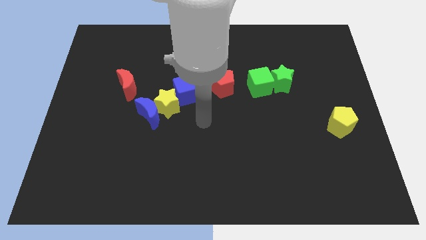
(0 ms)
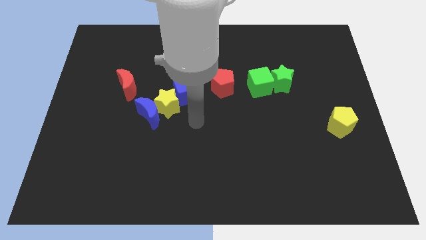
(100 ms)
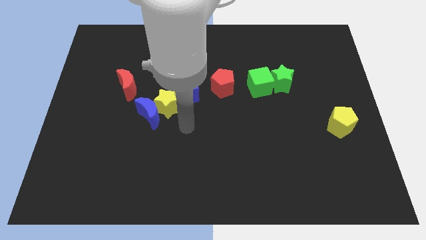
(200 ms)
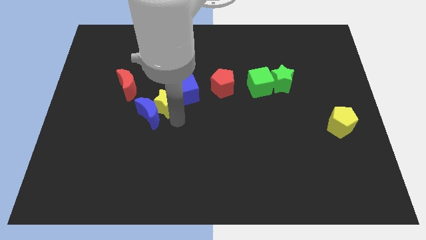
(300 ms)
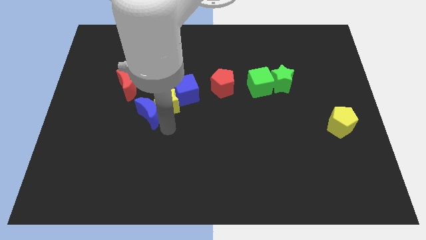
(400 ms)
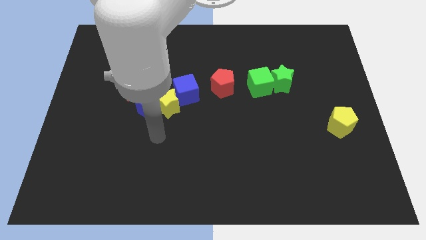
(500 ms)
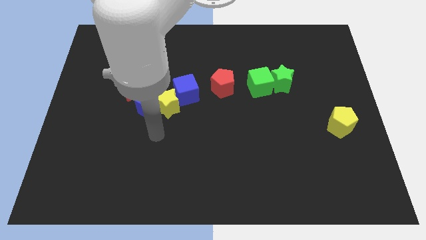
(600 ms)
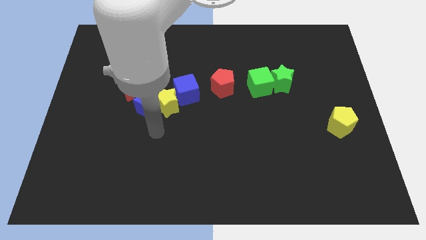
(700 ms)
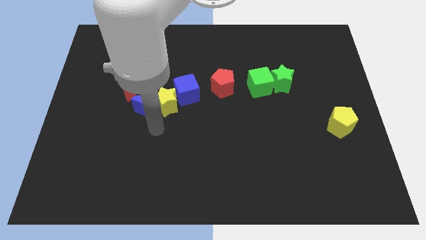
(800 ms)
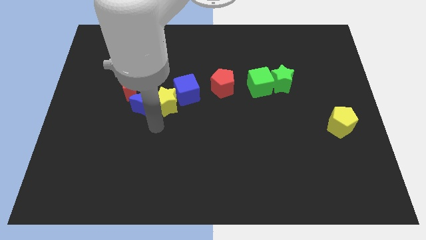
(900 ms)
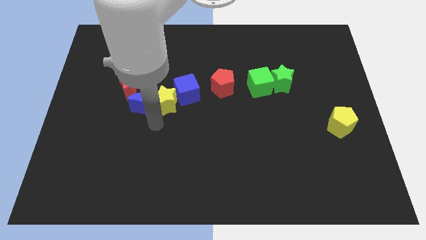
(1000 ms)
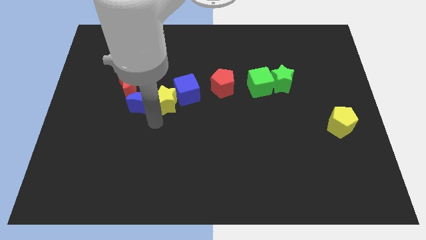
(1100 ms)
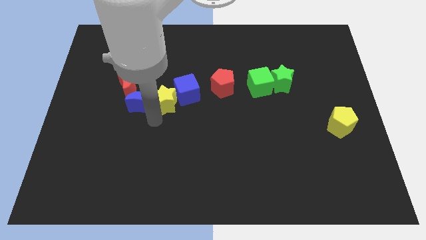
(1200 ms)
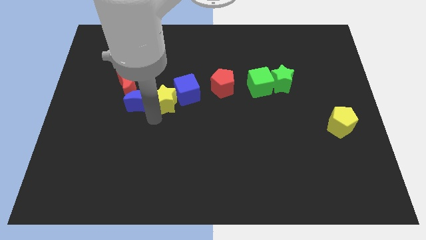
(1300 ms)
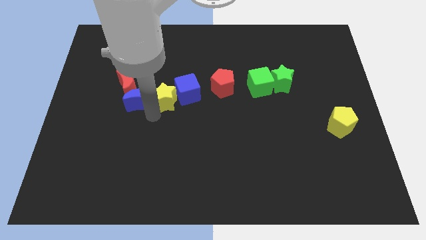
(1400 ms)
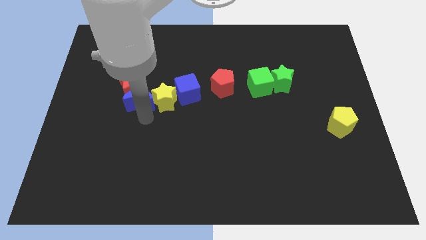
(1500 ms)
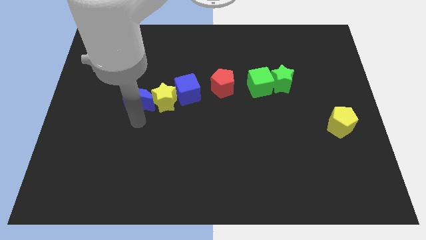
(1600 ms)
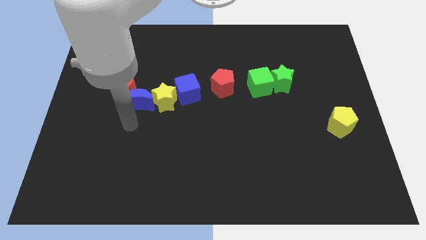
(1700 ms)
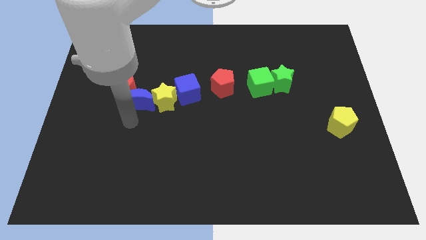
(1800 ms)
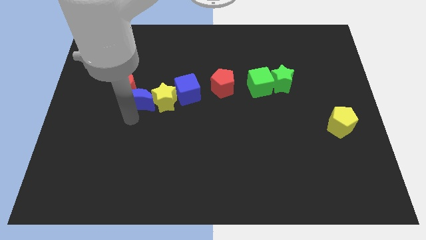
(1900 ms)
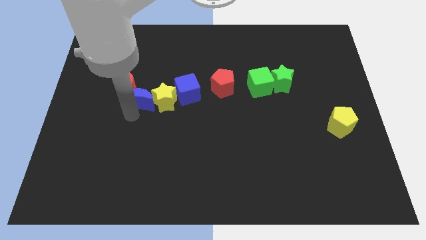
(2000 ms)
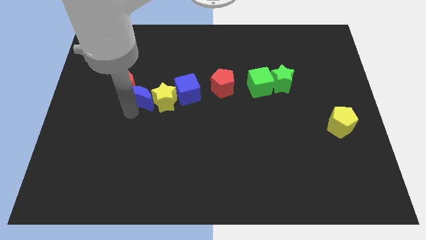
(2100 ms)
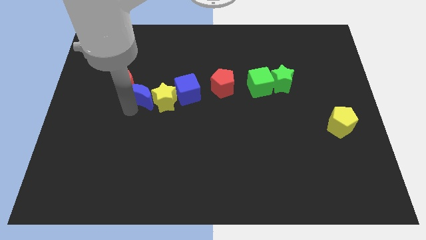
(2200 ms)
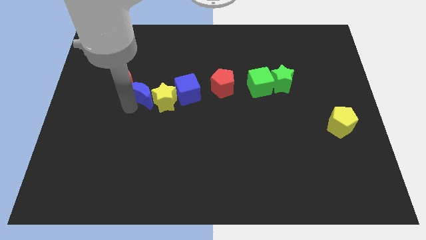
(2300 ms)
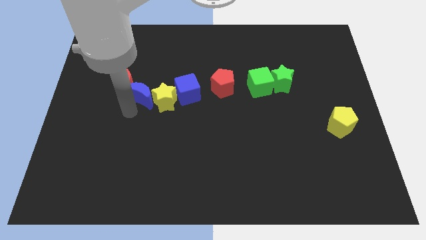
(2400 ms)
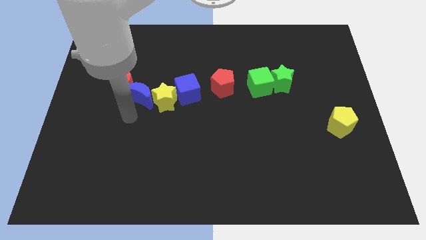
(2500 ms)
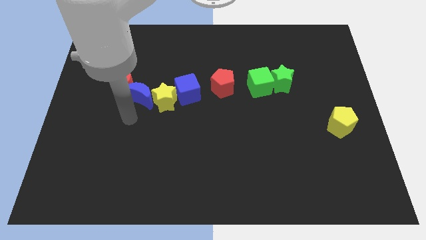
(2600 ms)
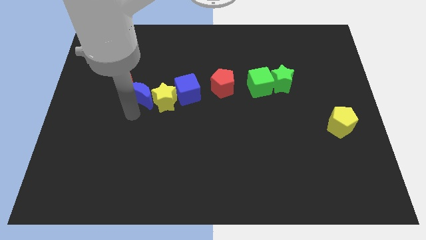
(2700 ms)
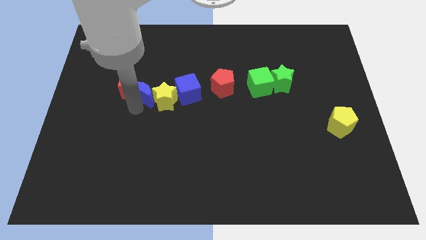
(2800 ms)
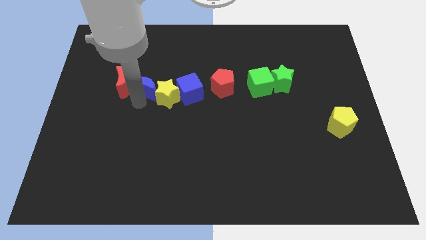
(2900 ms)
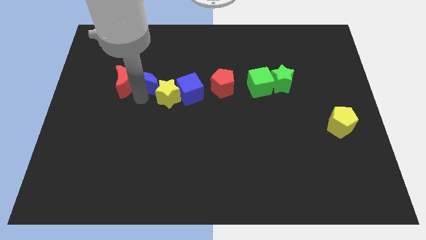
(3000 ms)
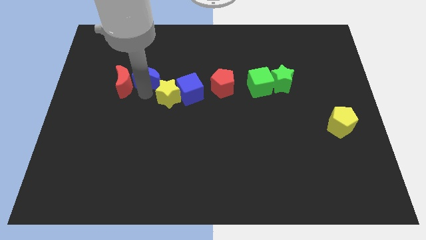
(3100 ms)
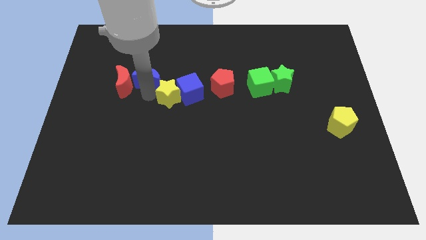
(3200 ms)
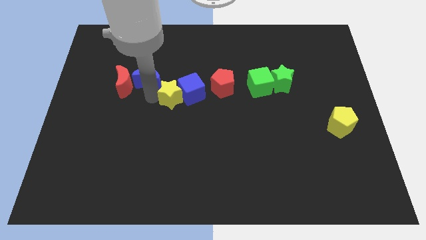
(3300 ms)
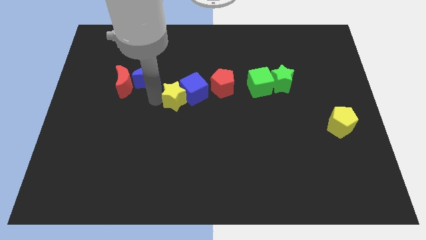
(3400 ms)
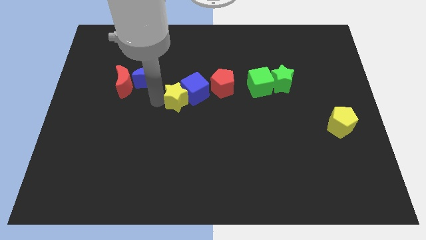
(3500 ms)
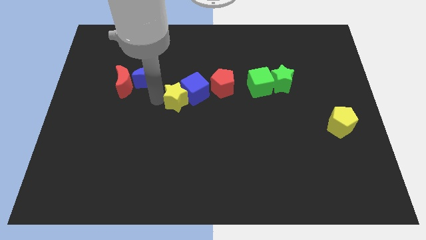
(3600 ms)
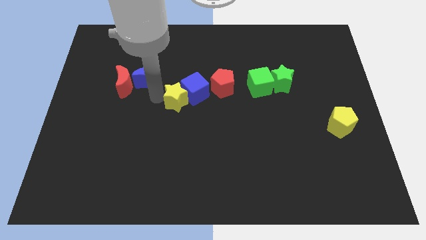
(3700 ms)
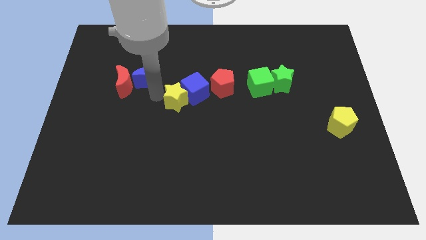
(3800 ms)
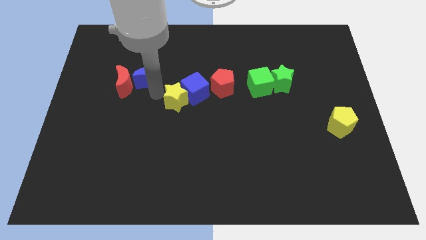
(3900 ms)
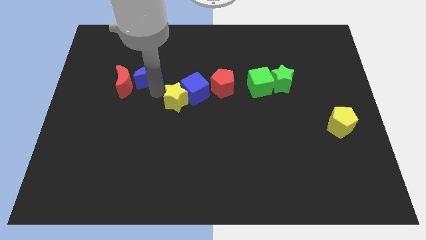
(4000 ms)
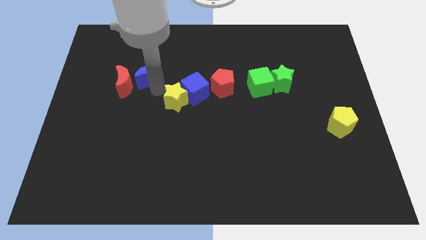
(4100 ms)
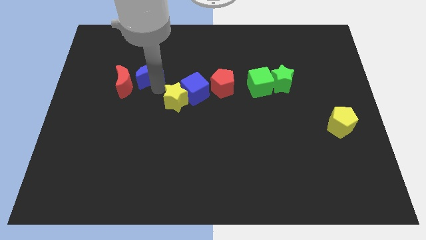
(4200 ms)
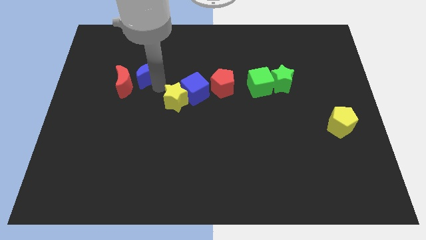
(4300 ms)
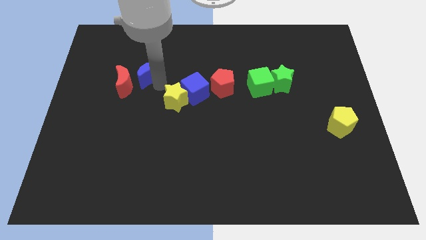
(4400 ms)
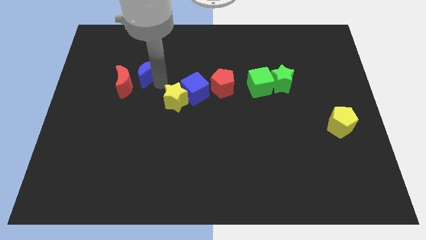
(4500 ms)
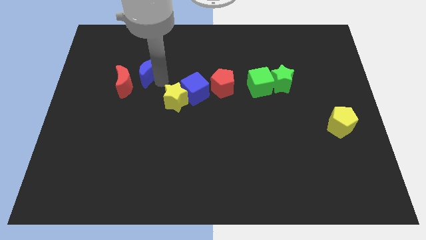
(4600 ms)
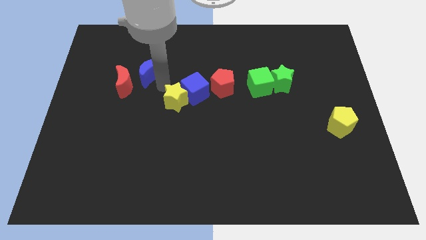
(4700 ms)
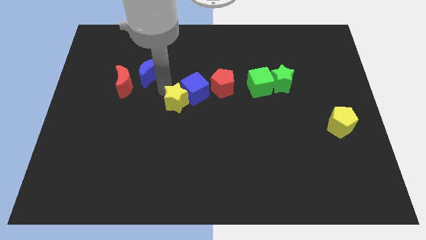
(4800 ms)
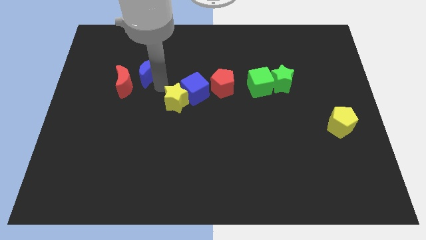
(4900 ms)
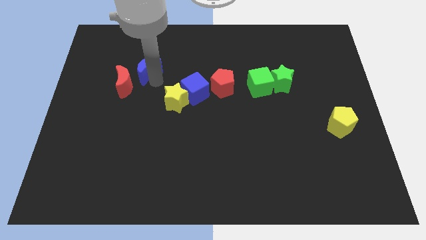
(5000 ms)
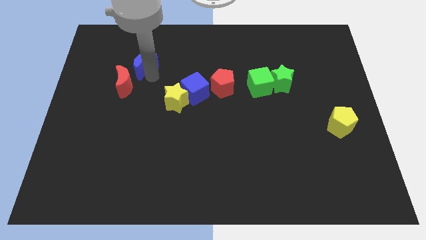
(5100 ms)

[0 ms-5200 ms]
push the blue moon to the top side of the red moon

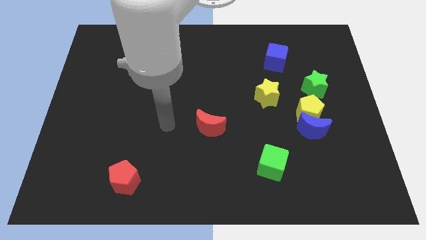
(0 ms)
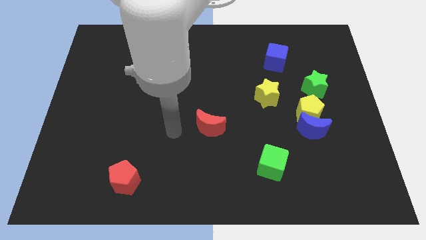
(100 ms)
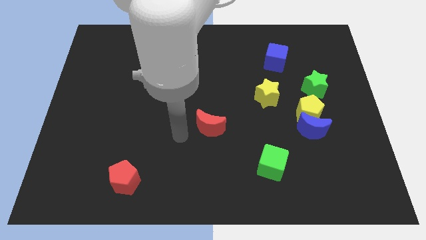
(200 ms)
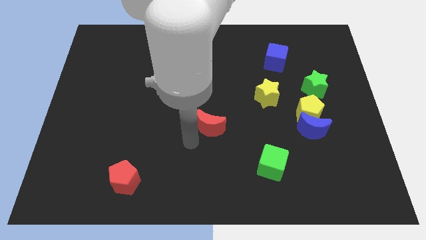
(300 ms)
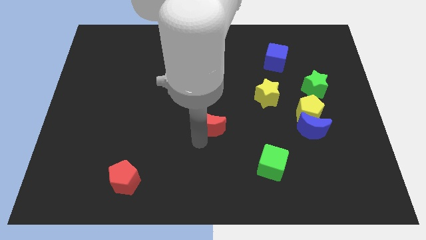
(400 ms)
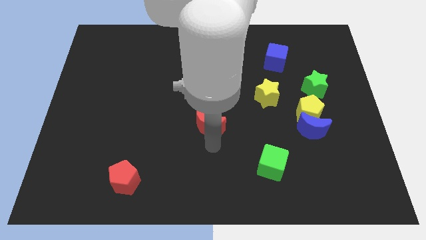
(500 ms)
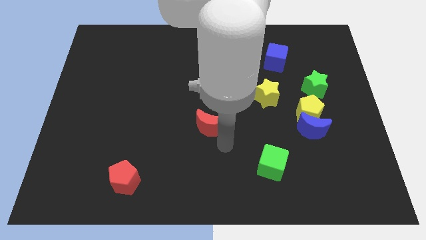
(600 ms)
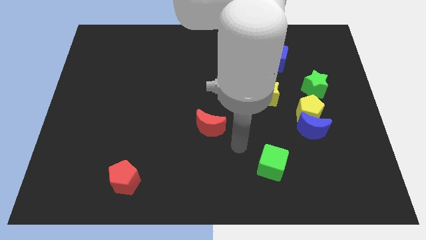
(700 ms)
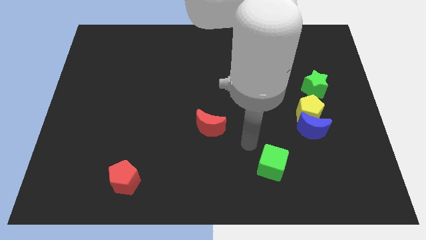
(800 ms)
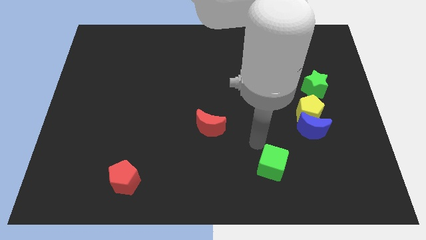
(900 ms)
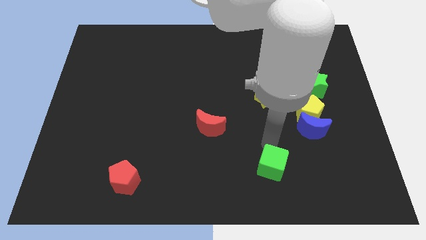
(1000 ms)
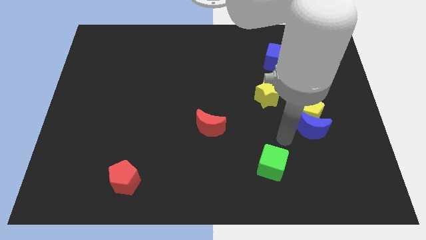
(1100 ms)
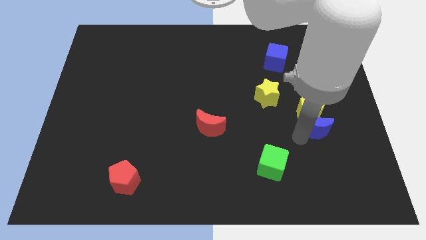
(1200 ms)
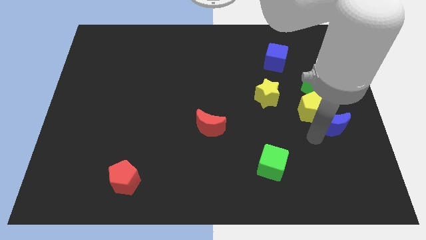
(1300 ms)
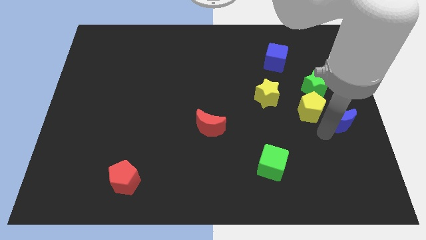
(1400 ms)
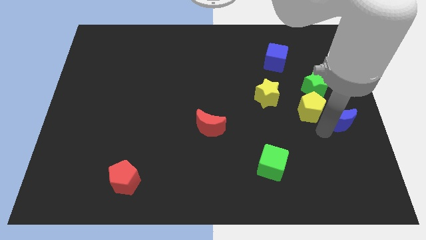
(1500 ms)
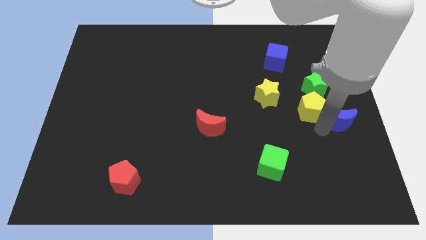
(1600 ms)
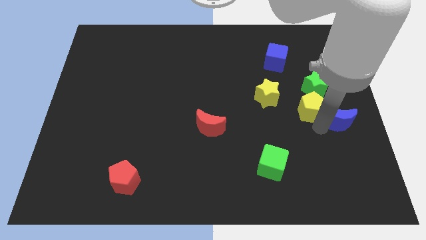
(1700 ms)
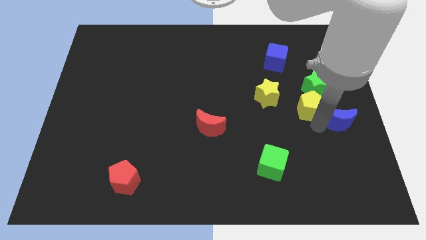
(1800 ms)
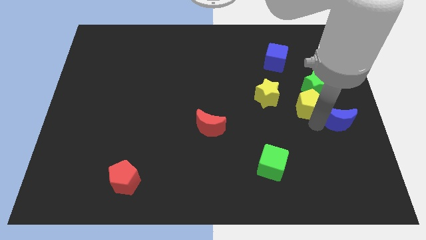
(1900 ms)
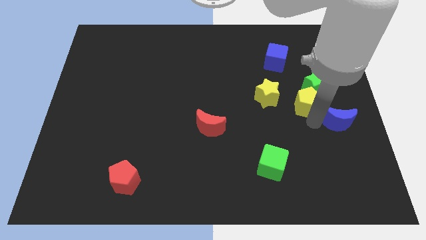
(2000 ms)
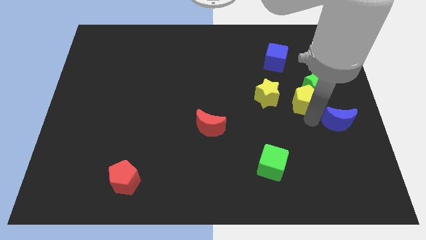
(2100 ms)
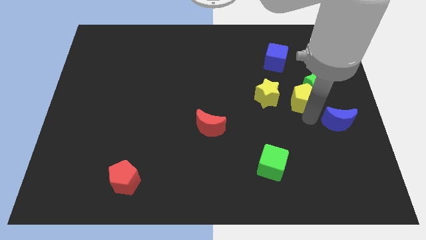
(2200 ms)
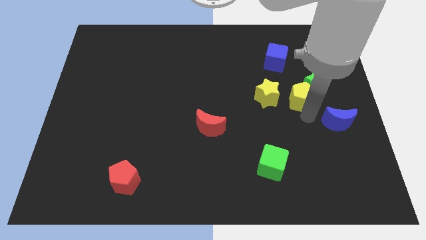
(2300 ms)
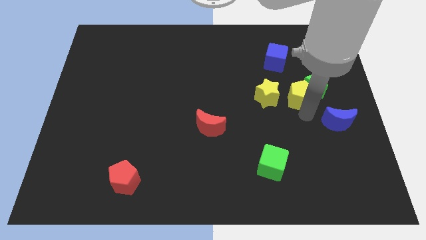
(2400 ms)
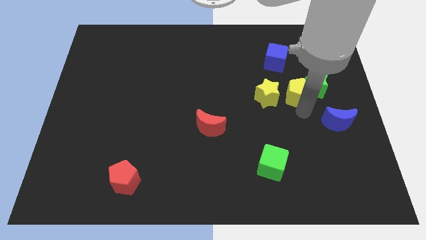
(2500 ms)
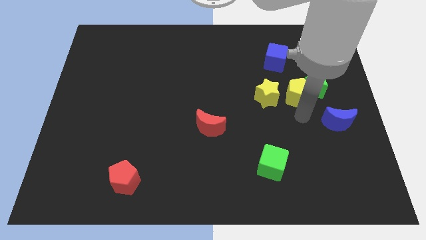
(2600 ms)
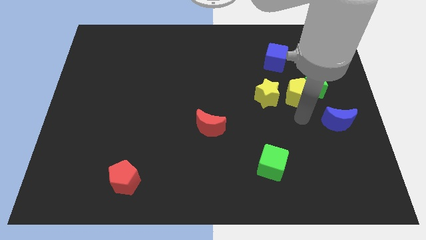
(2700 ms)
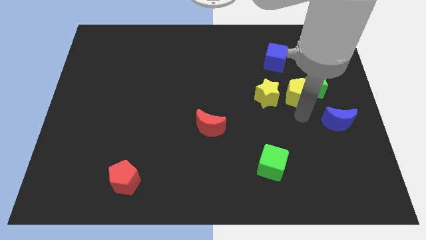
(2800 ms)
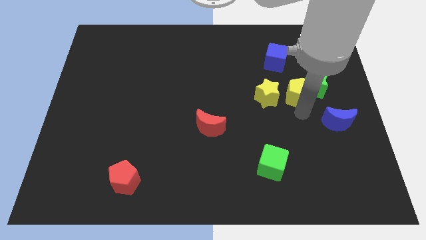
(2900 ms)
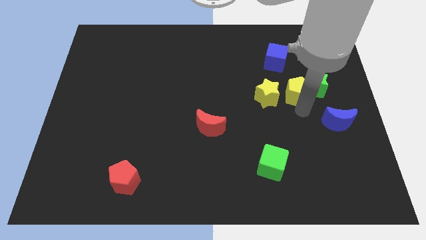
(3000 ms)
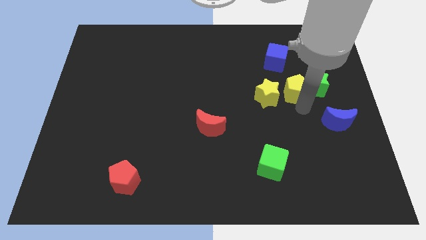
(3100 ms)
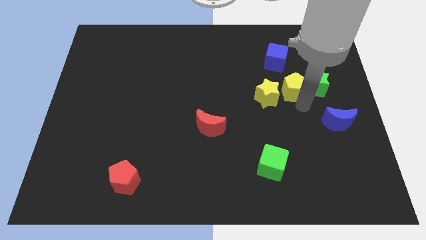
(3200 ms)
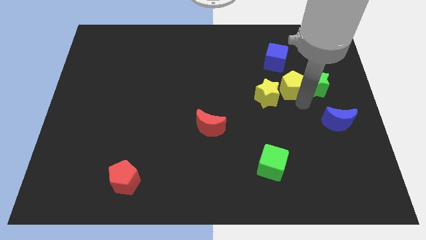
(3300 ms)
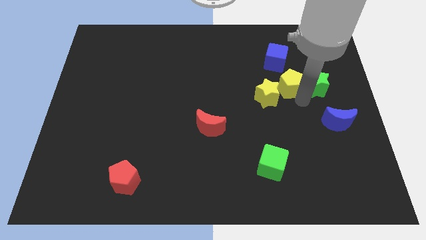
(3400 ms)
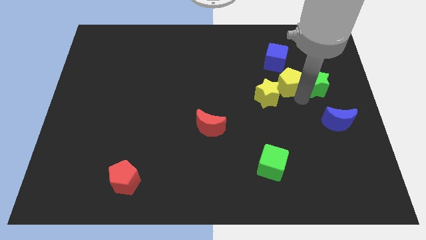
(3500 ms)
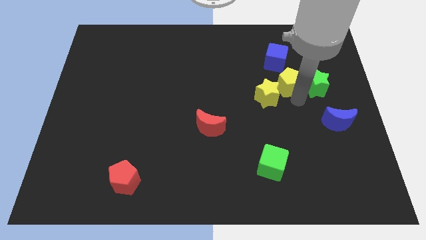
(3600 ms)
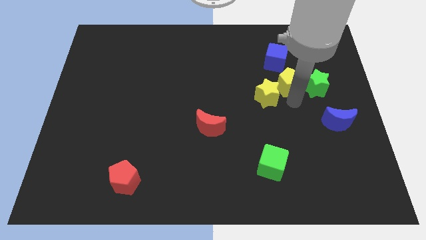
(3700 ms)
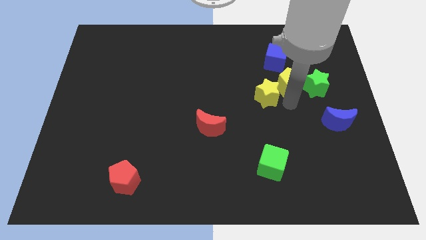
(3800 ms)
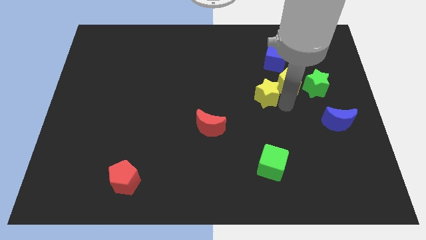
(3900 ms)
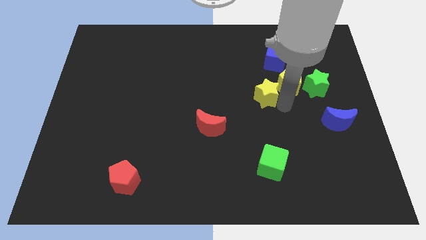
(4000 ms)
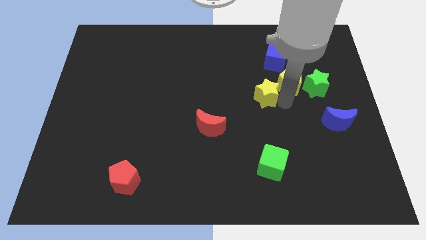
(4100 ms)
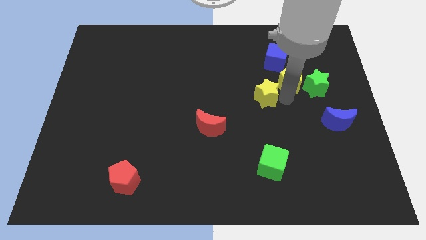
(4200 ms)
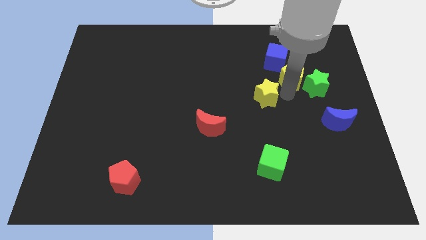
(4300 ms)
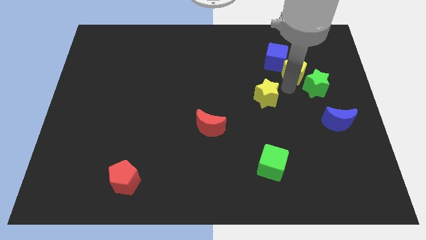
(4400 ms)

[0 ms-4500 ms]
slide the yellow pentagon to the top of the green star
